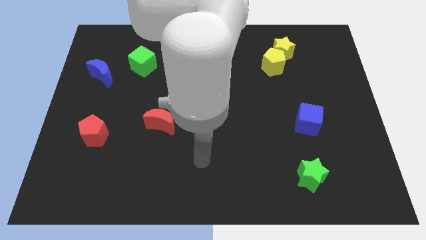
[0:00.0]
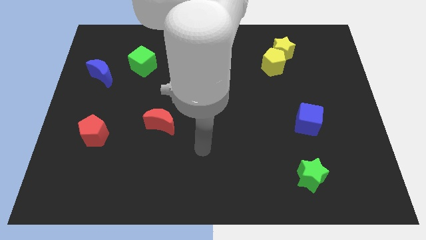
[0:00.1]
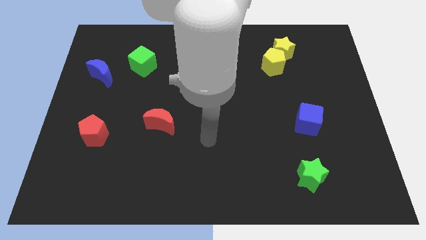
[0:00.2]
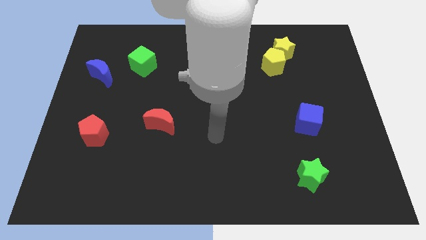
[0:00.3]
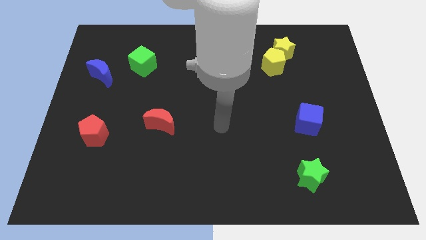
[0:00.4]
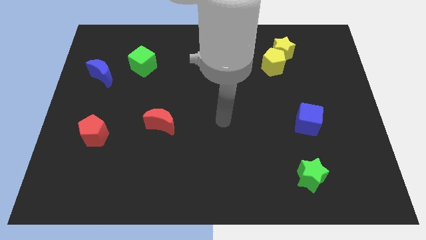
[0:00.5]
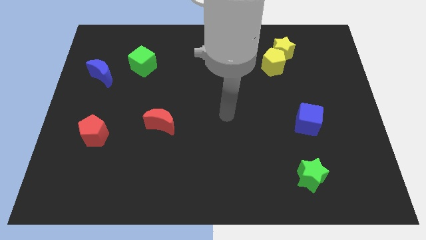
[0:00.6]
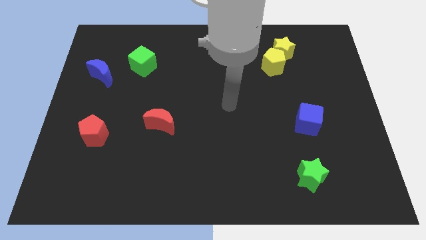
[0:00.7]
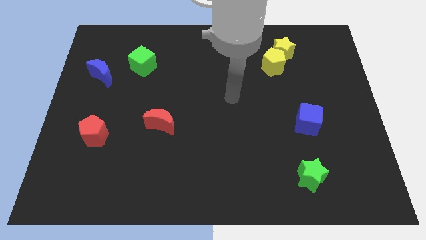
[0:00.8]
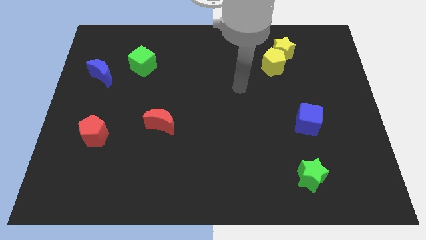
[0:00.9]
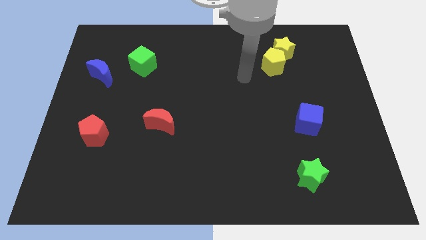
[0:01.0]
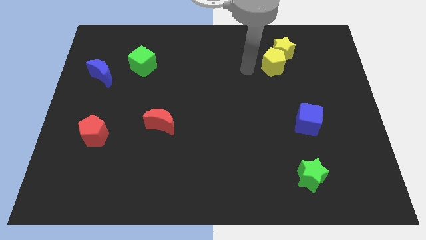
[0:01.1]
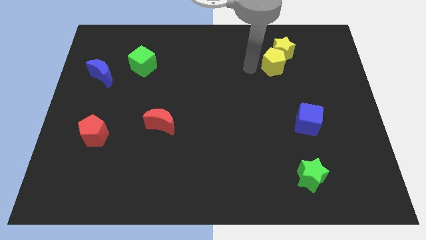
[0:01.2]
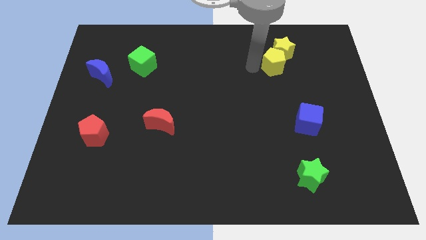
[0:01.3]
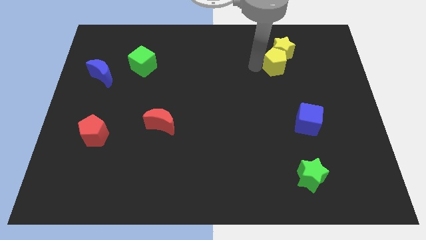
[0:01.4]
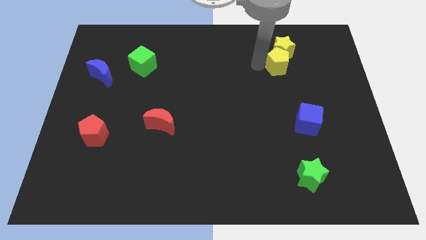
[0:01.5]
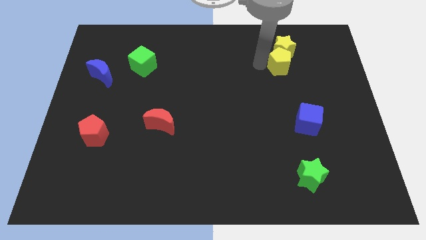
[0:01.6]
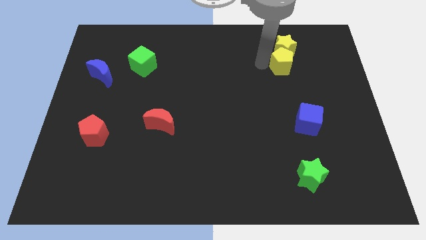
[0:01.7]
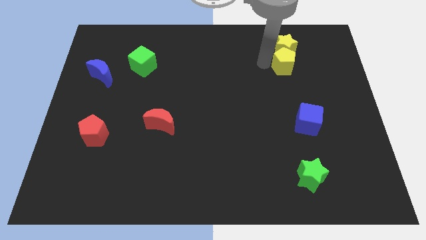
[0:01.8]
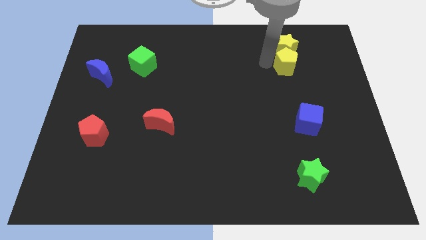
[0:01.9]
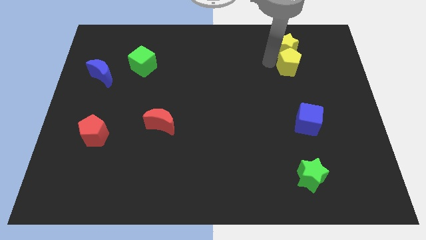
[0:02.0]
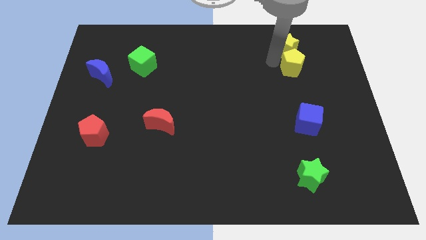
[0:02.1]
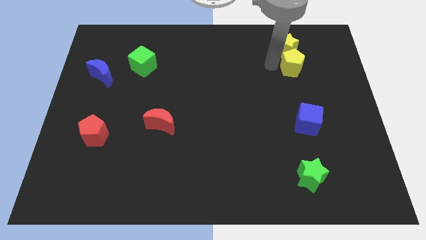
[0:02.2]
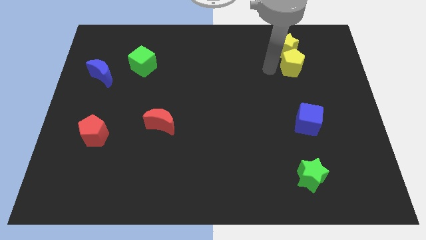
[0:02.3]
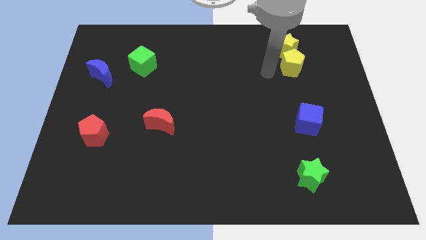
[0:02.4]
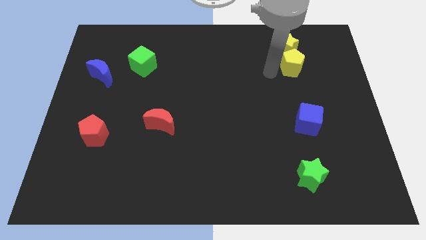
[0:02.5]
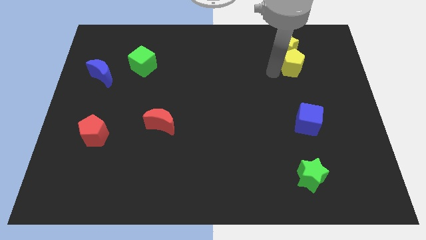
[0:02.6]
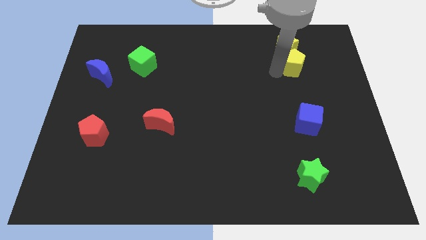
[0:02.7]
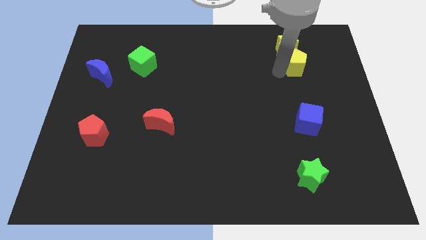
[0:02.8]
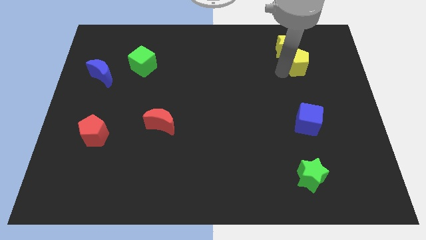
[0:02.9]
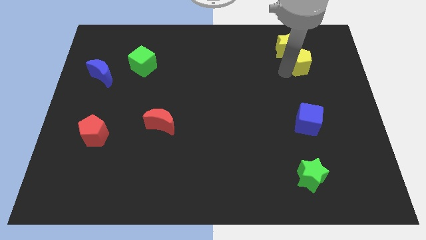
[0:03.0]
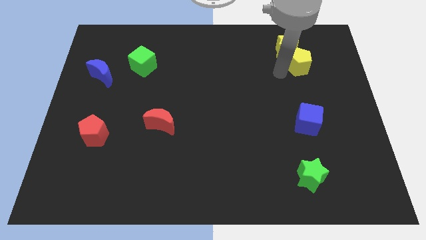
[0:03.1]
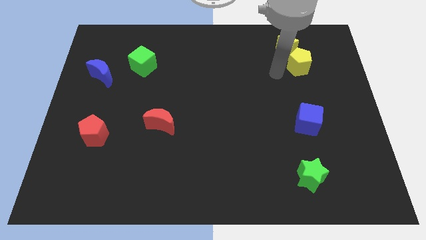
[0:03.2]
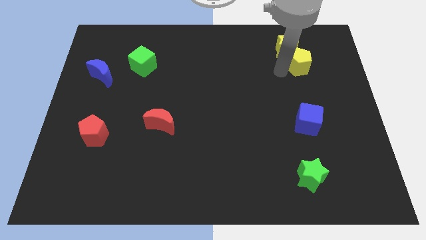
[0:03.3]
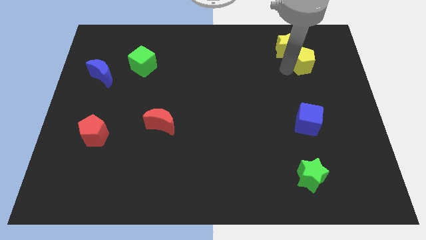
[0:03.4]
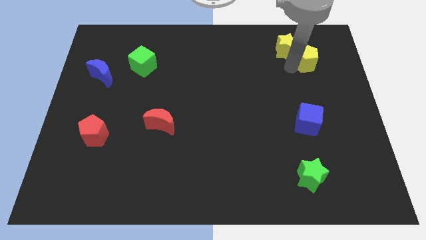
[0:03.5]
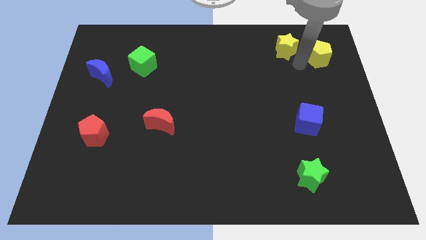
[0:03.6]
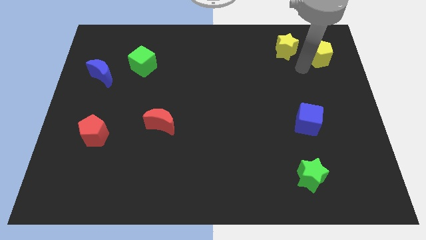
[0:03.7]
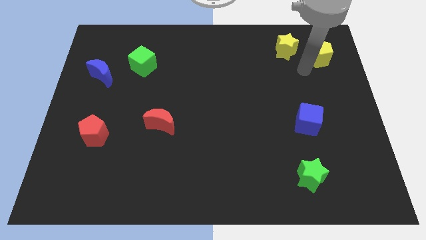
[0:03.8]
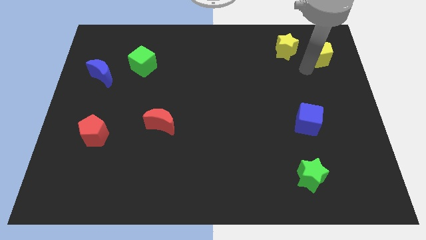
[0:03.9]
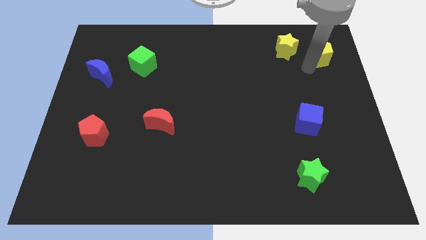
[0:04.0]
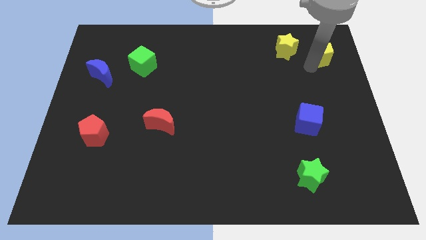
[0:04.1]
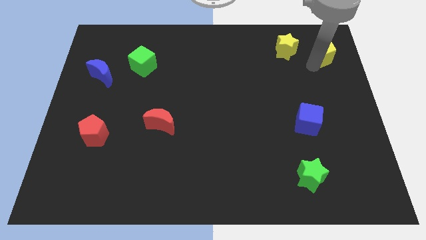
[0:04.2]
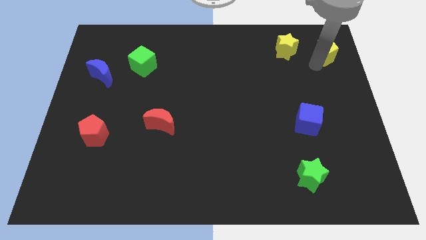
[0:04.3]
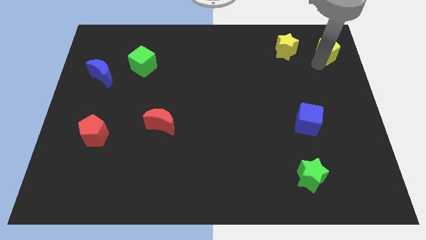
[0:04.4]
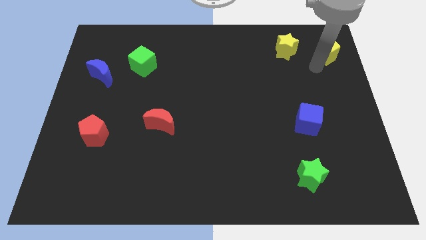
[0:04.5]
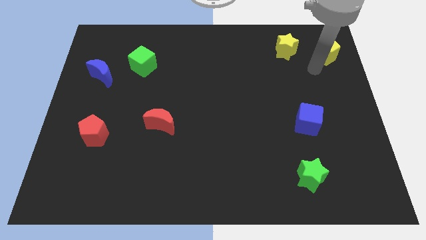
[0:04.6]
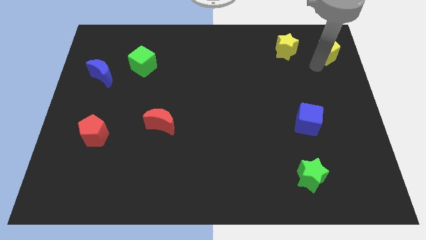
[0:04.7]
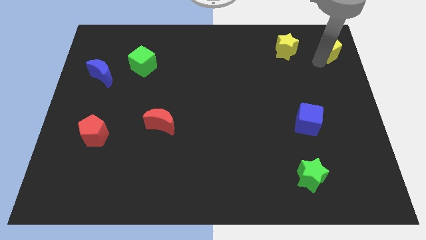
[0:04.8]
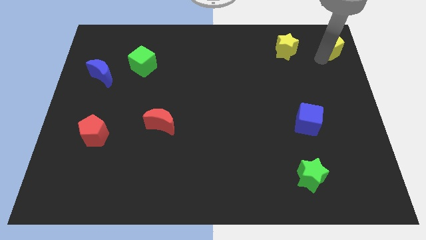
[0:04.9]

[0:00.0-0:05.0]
push the yellow pentagon to the top right of the board
